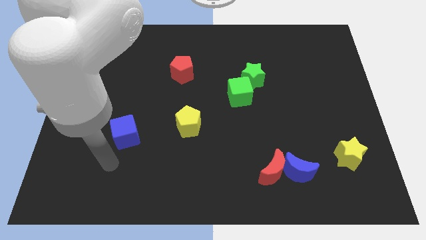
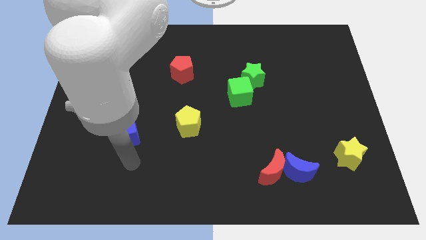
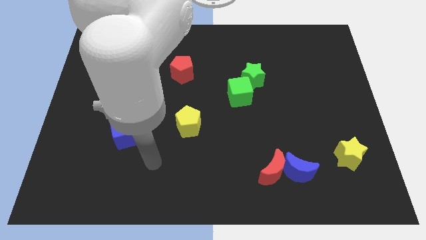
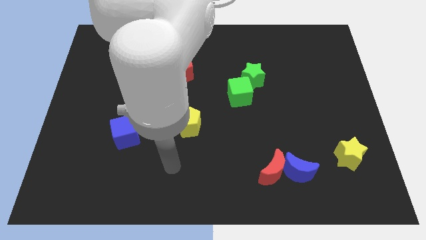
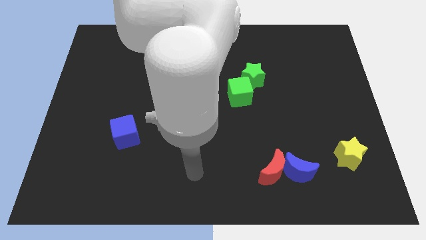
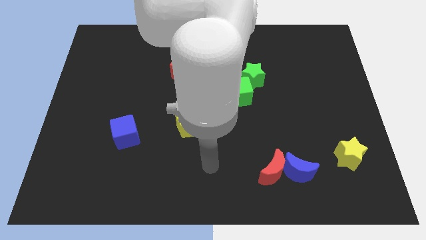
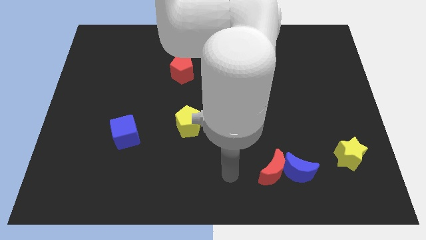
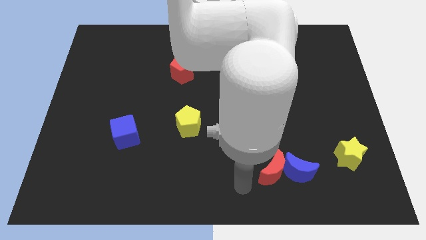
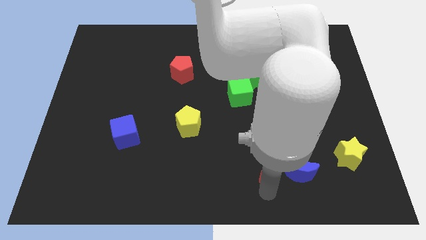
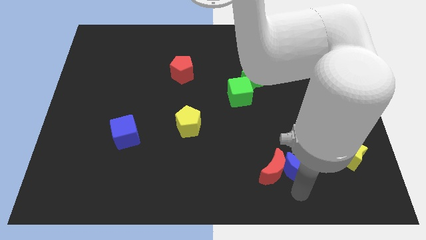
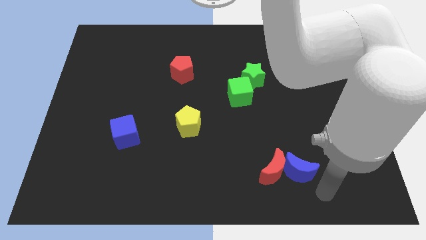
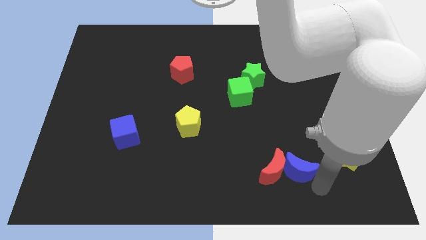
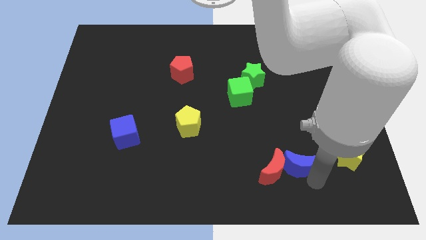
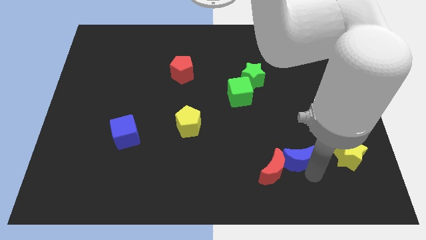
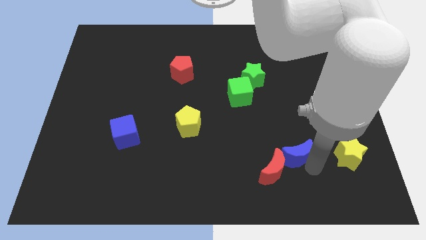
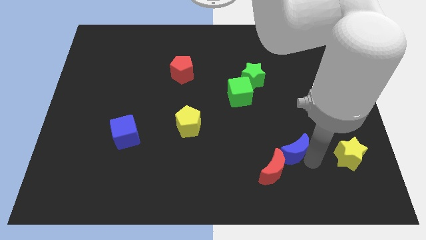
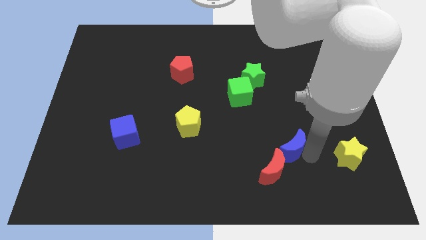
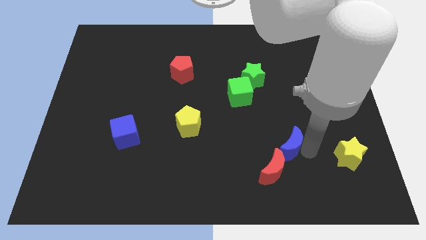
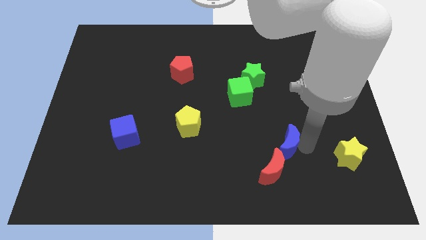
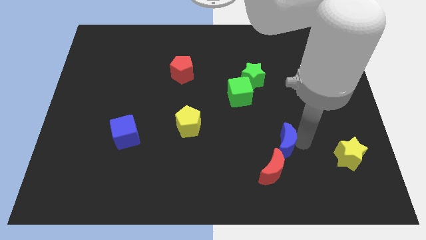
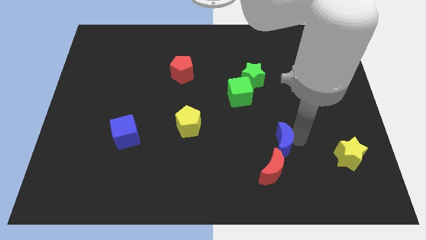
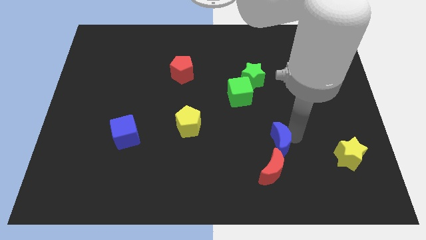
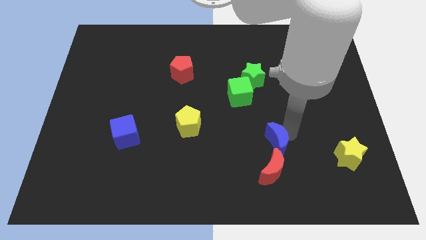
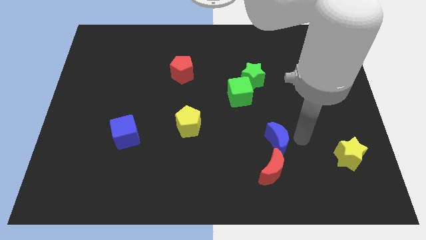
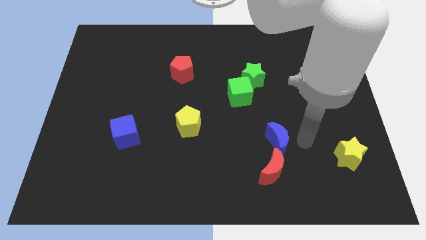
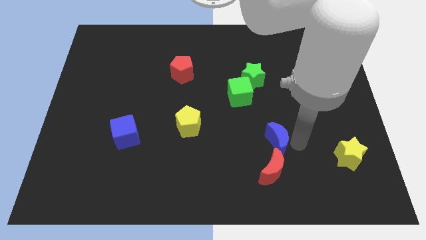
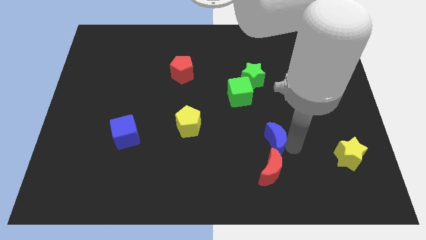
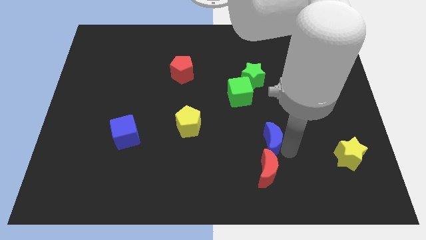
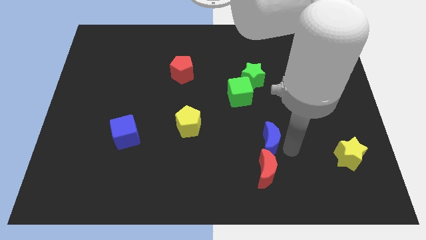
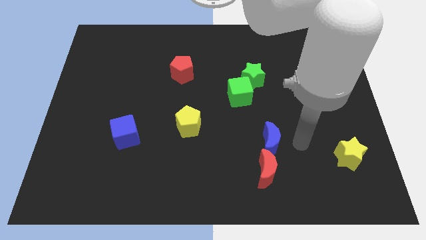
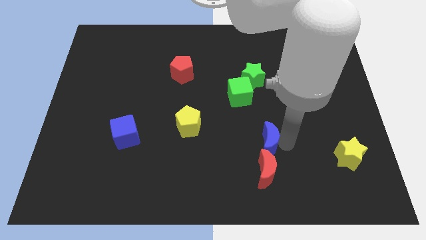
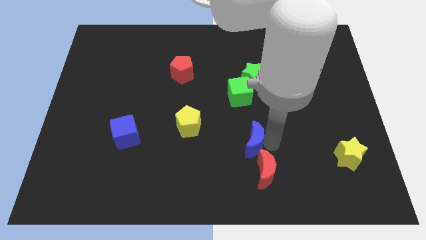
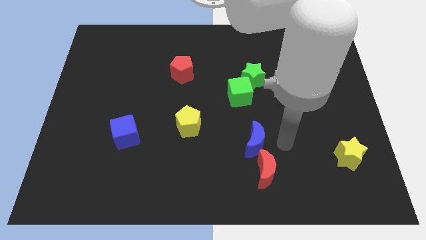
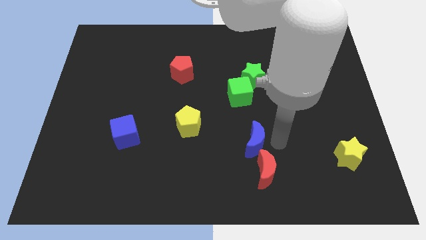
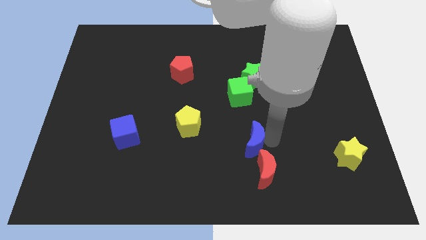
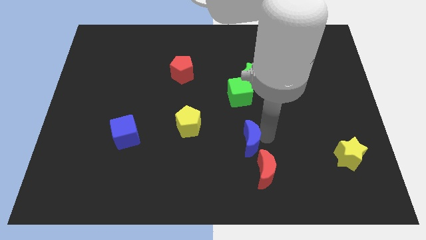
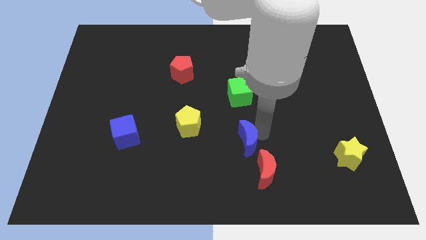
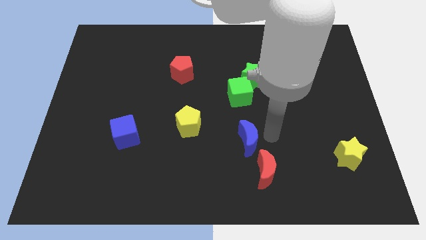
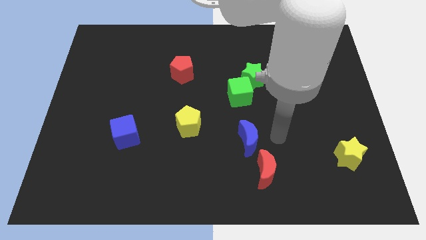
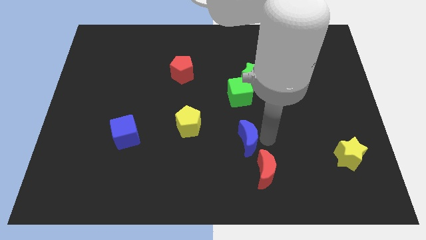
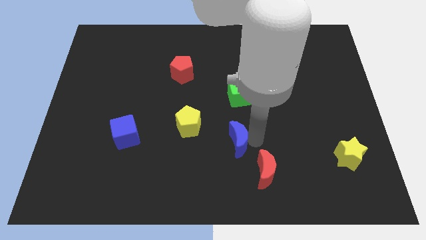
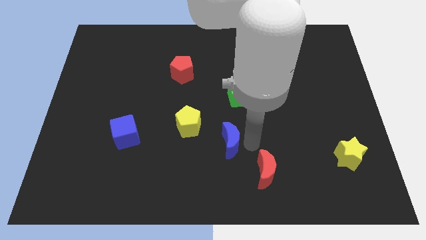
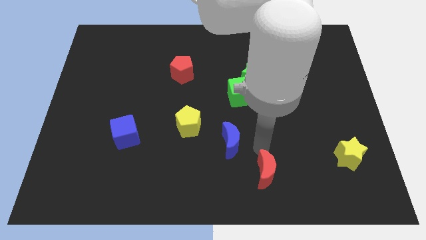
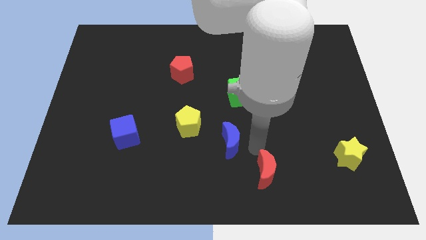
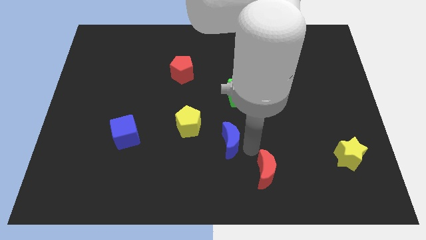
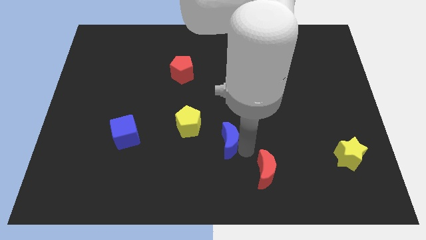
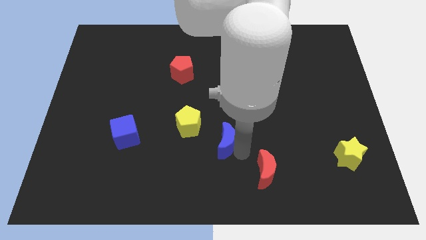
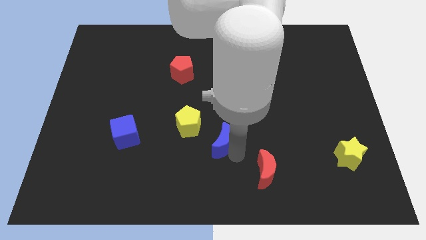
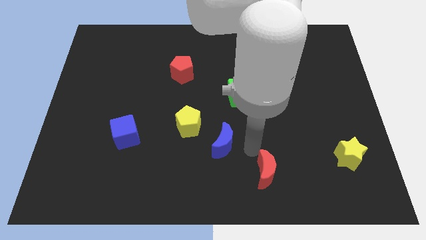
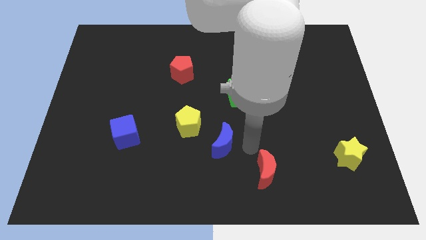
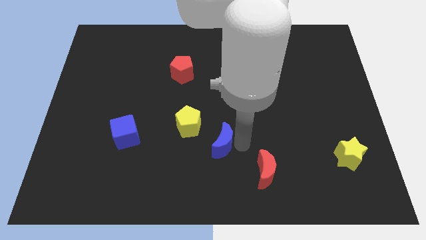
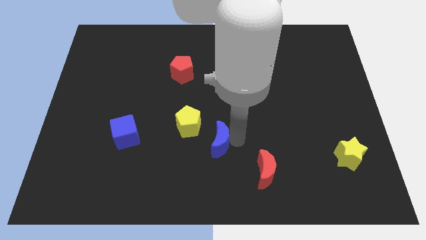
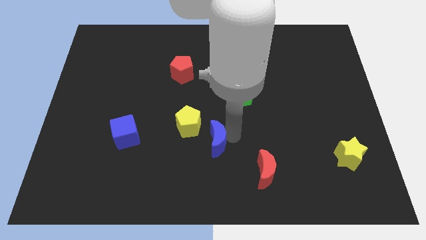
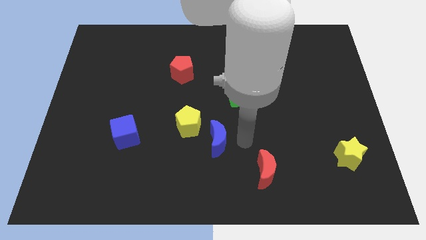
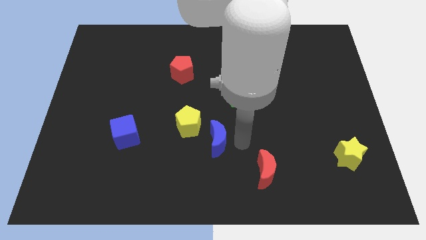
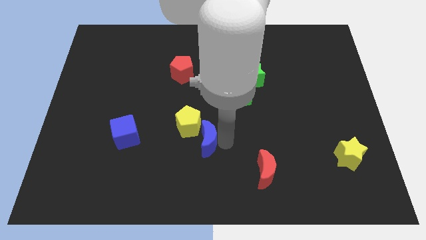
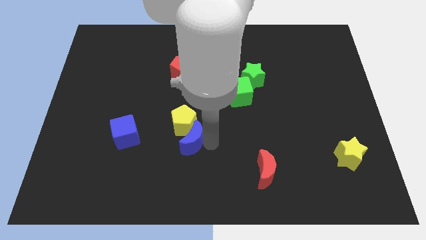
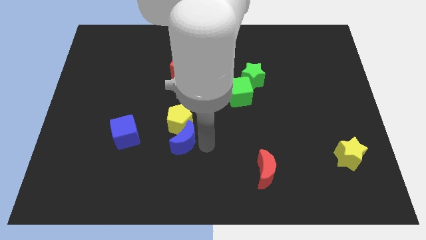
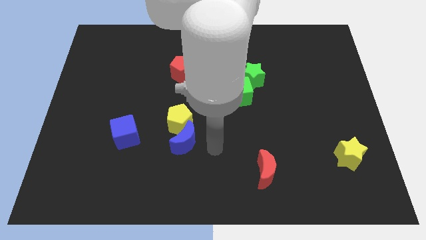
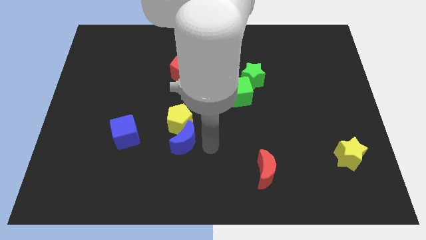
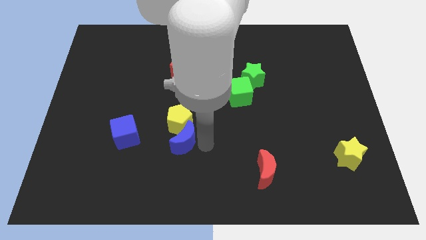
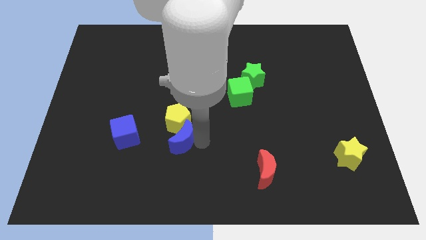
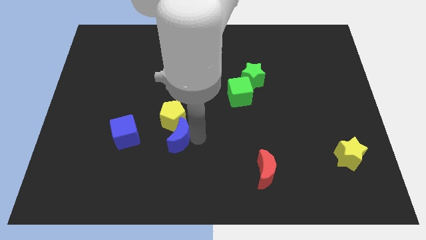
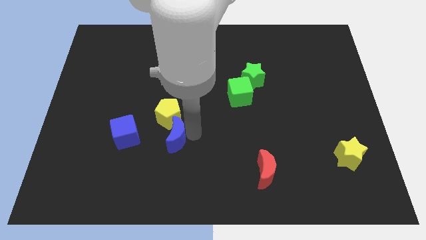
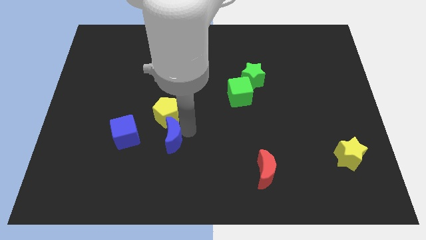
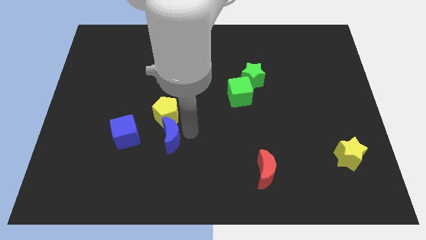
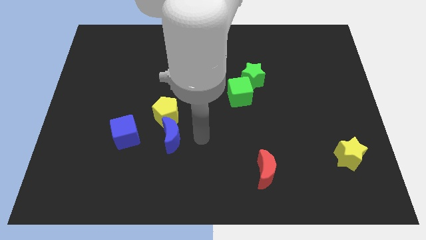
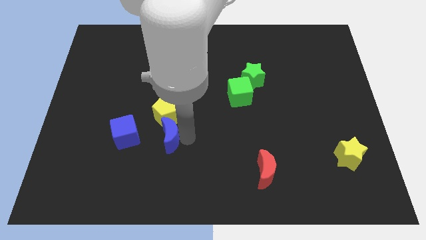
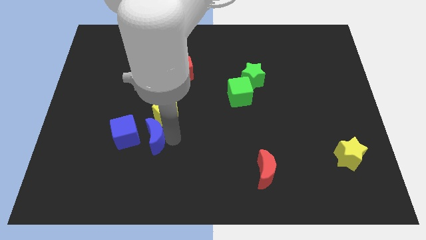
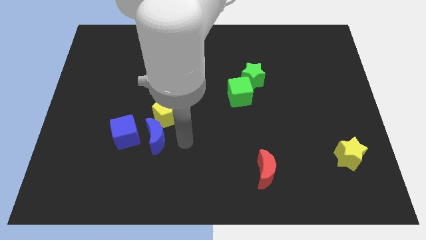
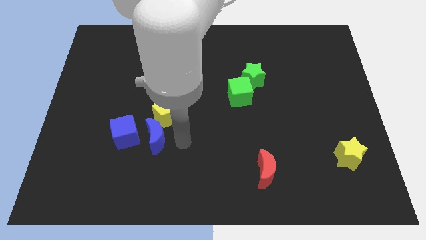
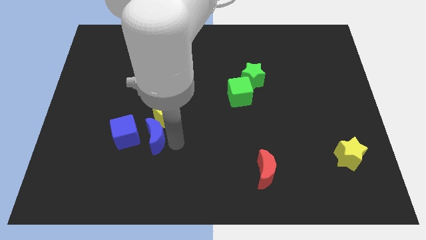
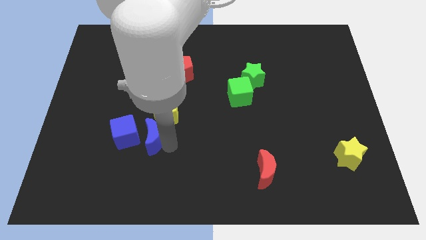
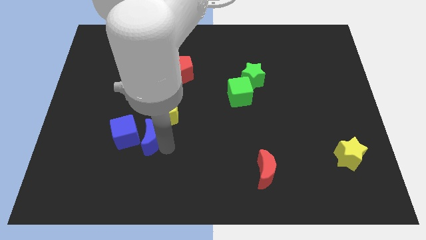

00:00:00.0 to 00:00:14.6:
push the blue moon close to the blue cube
